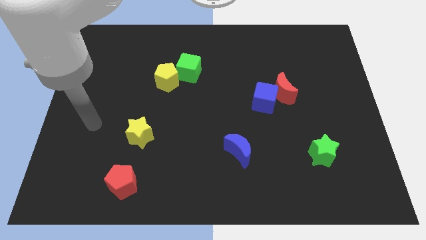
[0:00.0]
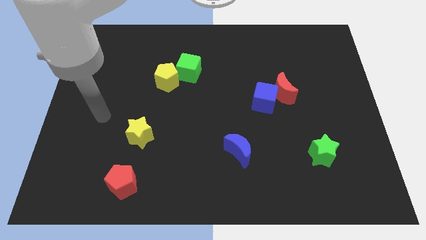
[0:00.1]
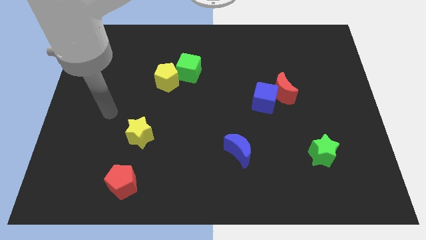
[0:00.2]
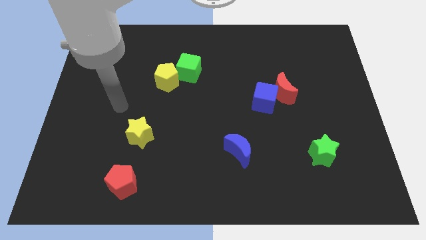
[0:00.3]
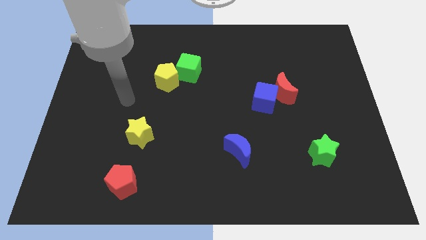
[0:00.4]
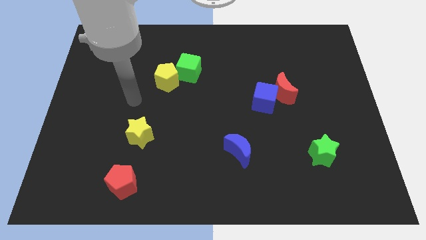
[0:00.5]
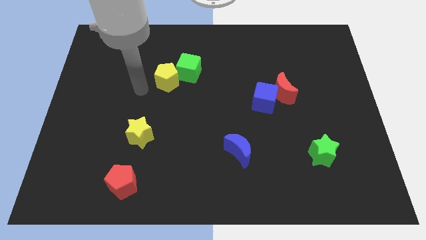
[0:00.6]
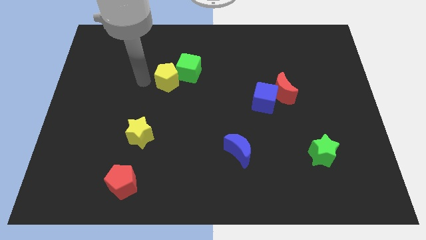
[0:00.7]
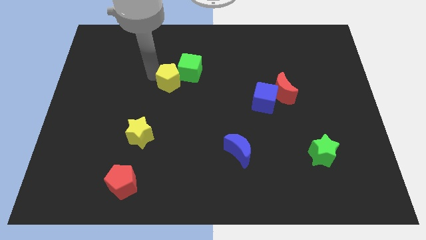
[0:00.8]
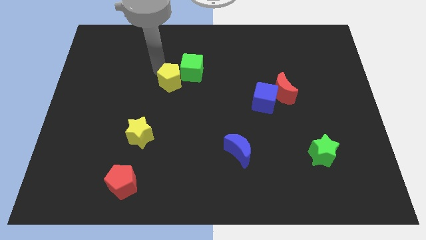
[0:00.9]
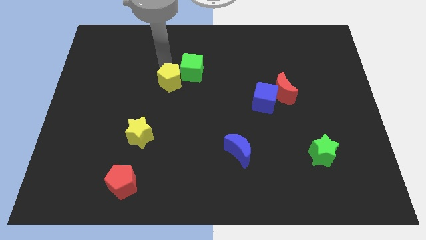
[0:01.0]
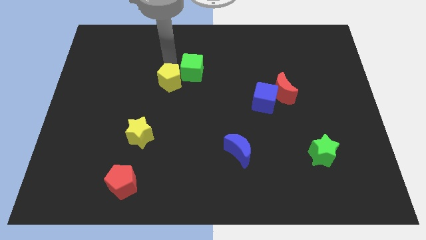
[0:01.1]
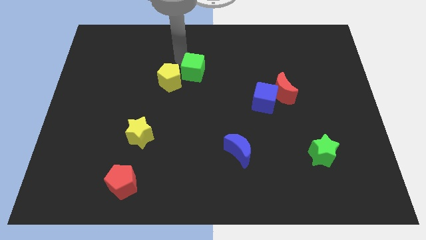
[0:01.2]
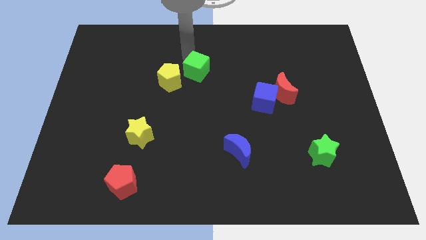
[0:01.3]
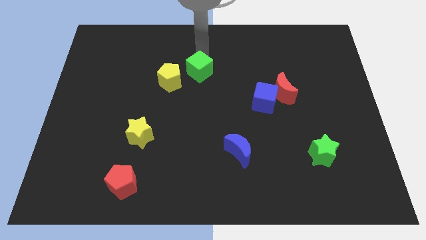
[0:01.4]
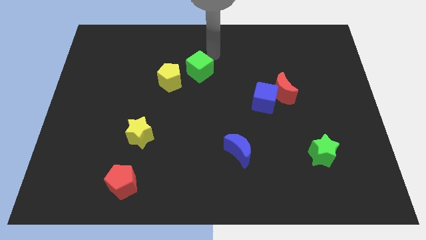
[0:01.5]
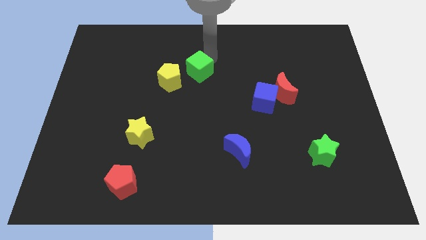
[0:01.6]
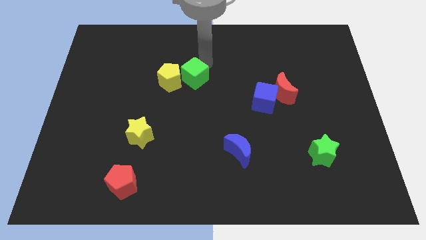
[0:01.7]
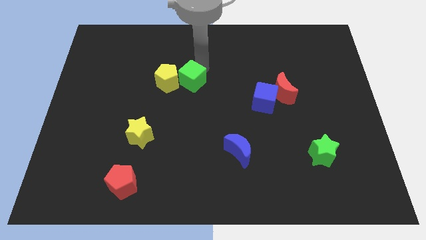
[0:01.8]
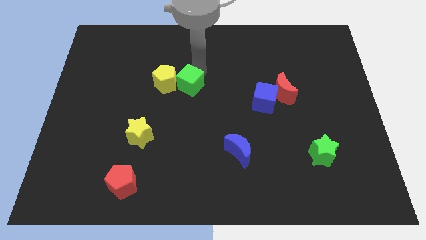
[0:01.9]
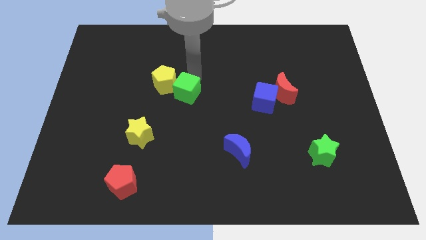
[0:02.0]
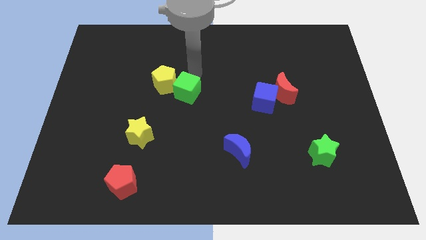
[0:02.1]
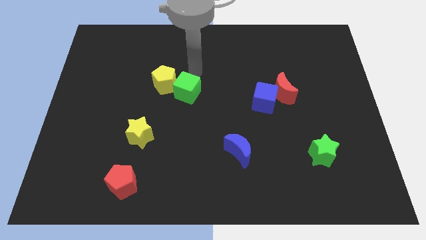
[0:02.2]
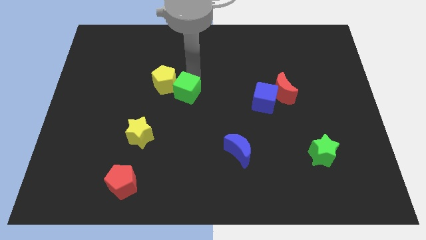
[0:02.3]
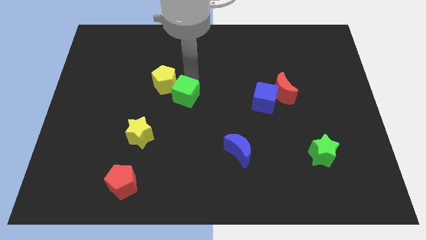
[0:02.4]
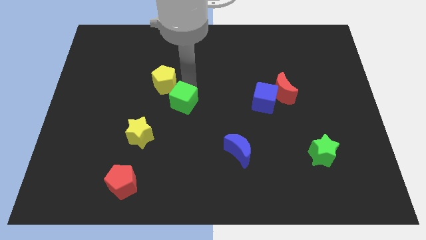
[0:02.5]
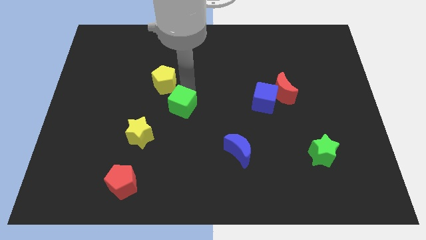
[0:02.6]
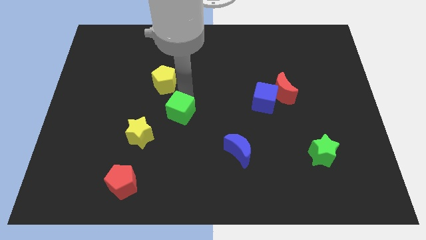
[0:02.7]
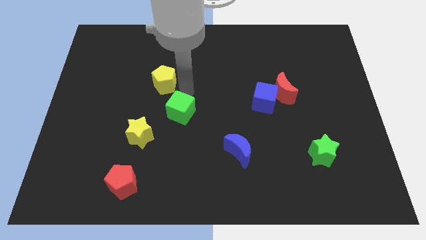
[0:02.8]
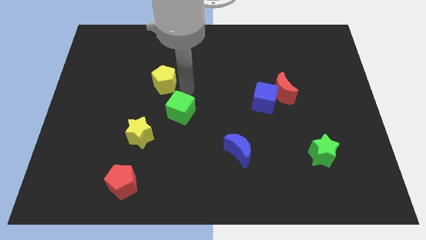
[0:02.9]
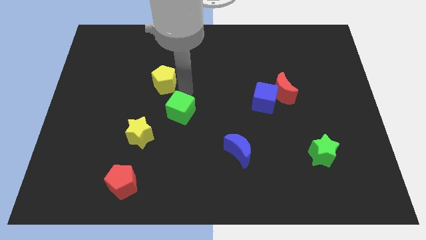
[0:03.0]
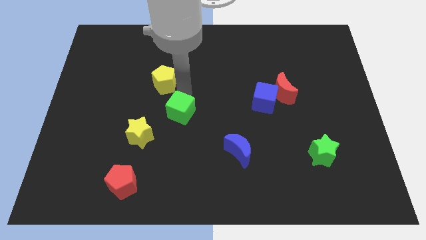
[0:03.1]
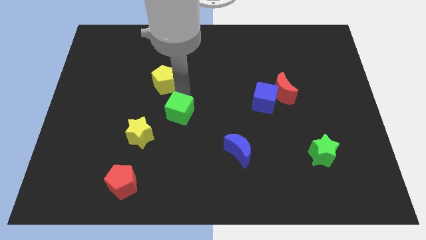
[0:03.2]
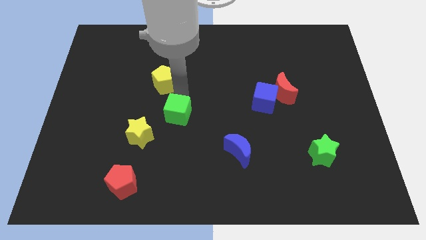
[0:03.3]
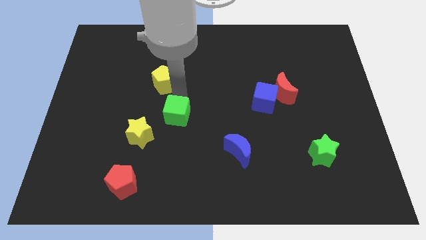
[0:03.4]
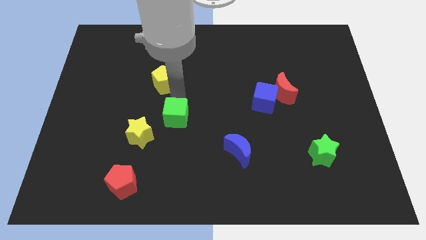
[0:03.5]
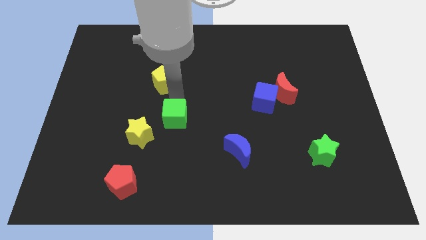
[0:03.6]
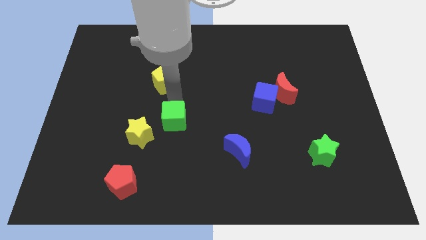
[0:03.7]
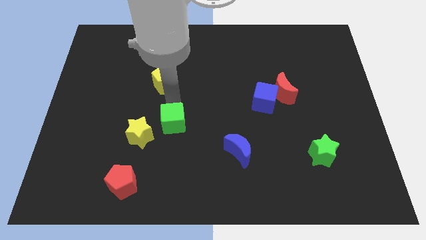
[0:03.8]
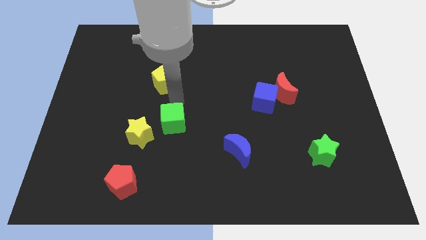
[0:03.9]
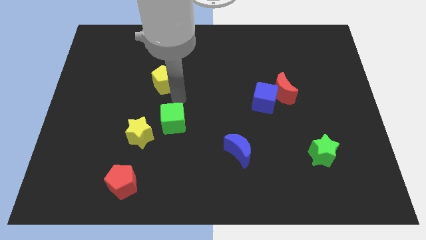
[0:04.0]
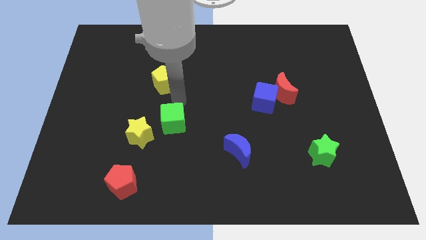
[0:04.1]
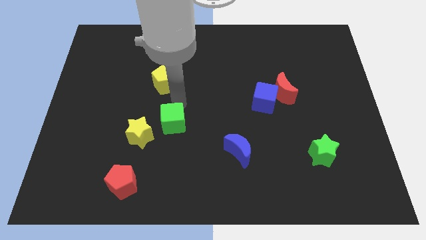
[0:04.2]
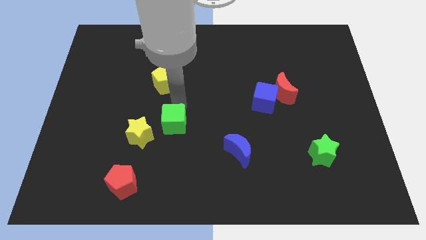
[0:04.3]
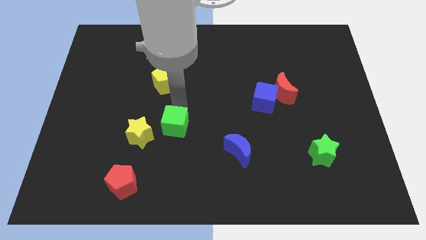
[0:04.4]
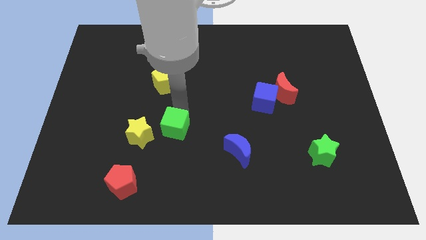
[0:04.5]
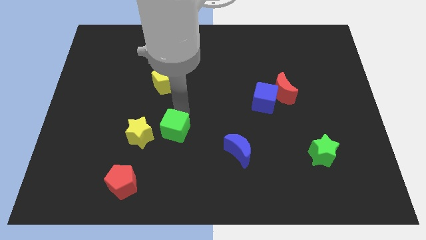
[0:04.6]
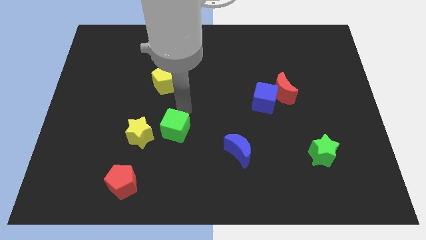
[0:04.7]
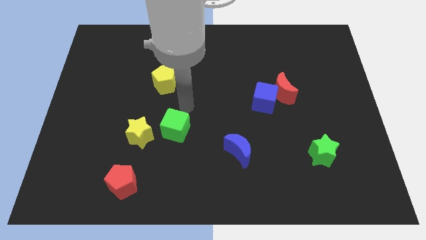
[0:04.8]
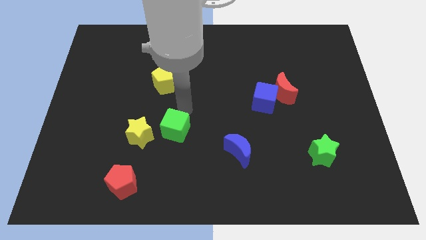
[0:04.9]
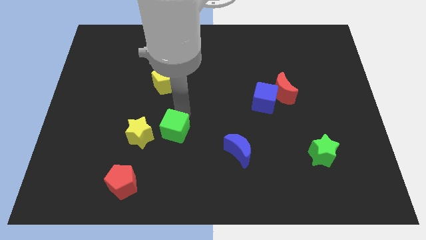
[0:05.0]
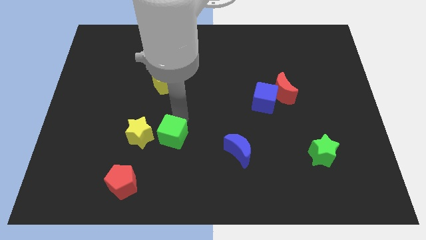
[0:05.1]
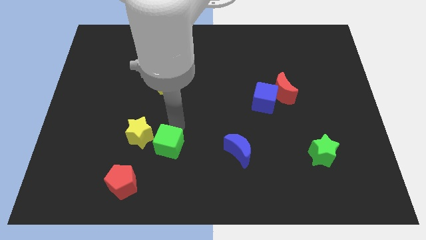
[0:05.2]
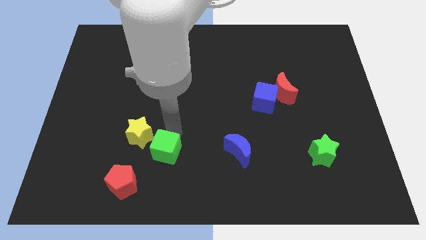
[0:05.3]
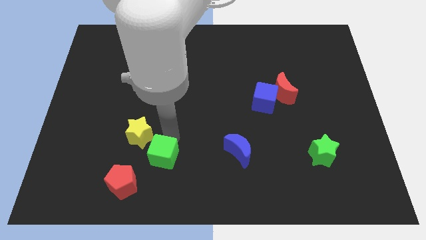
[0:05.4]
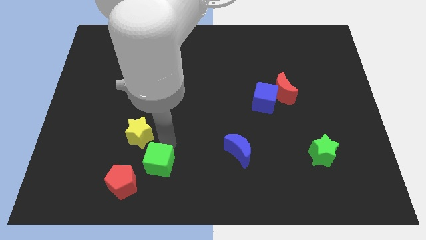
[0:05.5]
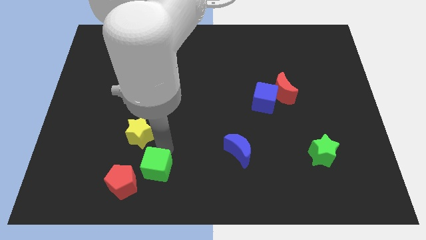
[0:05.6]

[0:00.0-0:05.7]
put the green cube to the bottom side of the yellow star

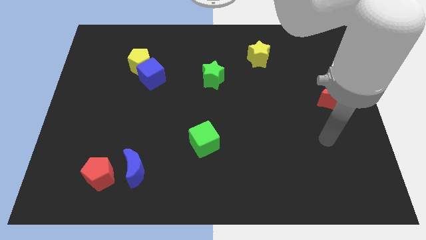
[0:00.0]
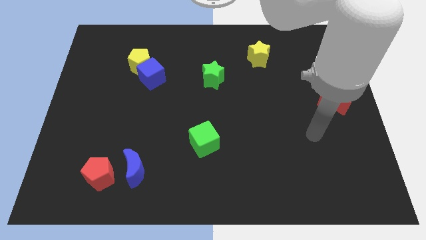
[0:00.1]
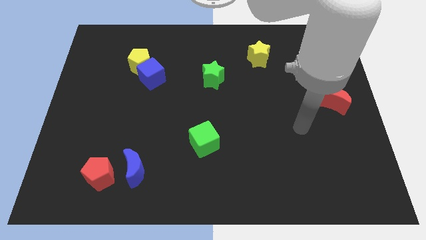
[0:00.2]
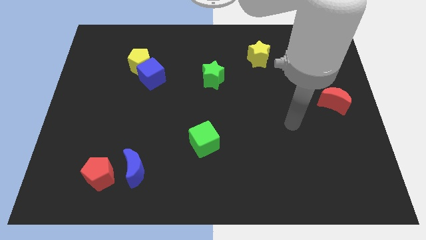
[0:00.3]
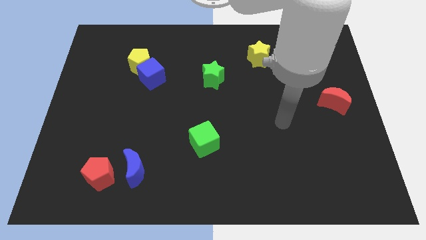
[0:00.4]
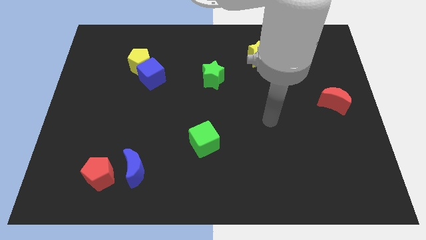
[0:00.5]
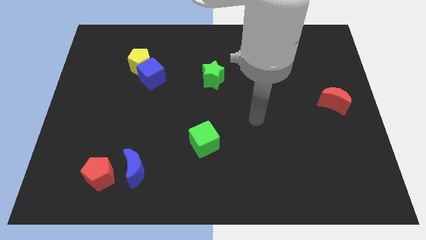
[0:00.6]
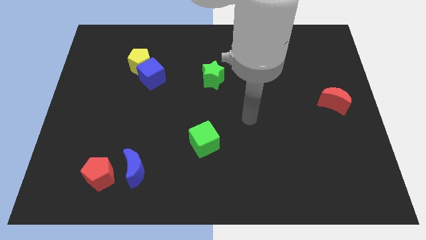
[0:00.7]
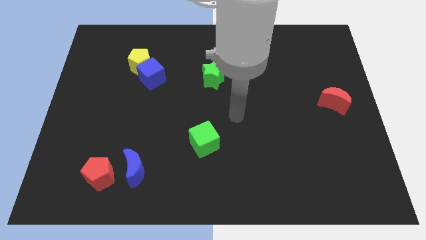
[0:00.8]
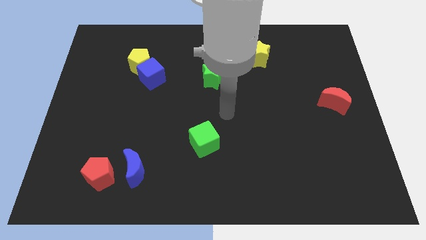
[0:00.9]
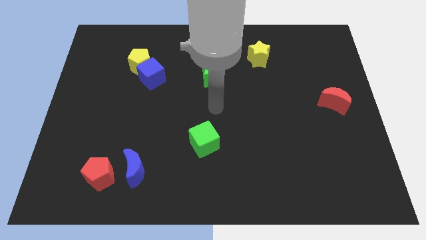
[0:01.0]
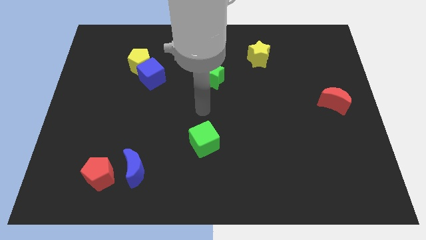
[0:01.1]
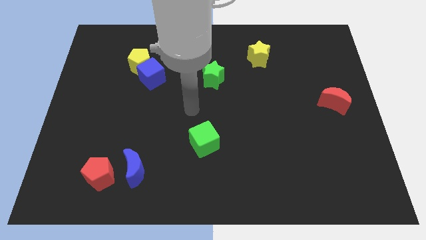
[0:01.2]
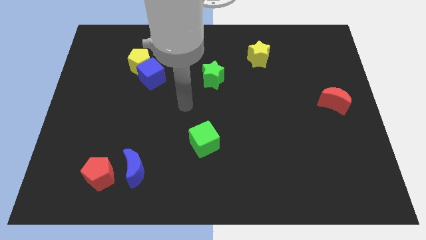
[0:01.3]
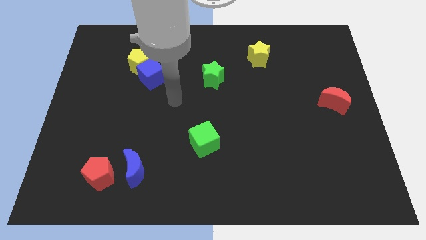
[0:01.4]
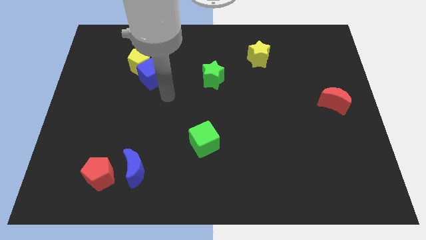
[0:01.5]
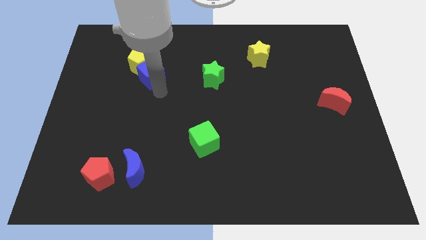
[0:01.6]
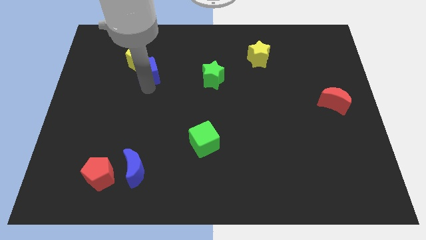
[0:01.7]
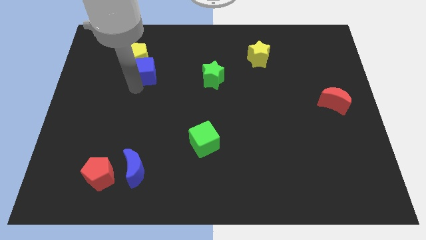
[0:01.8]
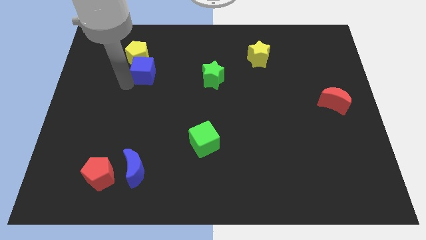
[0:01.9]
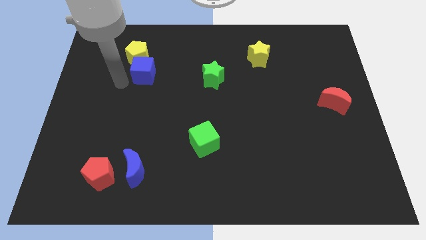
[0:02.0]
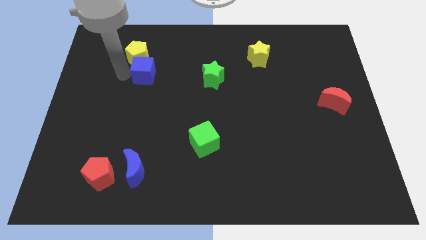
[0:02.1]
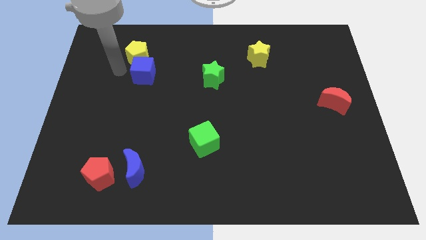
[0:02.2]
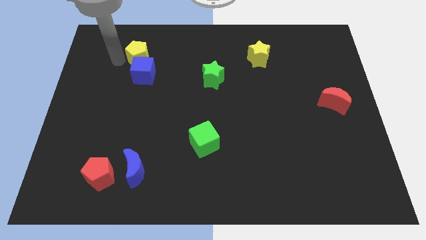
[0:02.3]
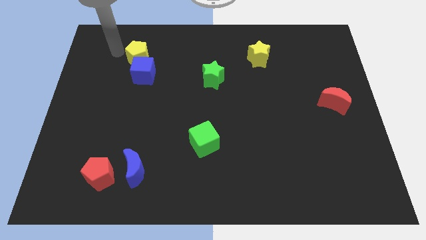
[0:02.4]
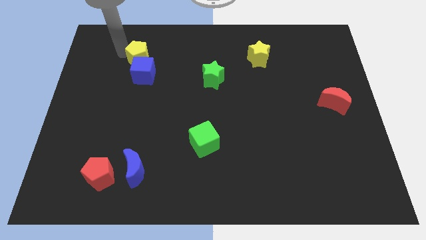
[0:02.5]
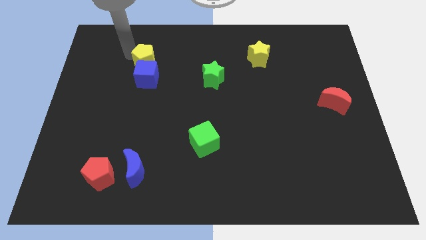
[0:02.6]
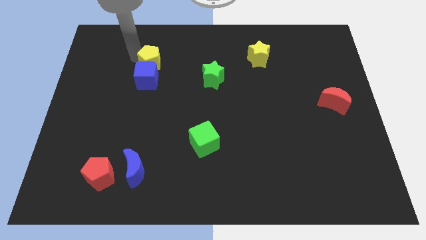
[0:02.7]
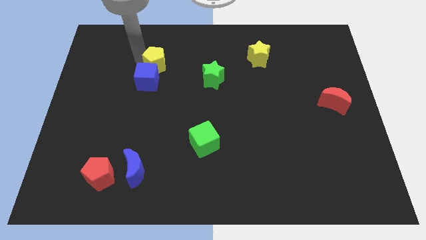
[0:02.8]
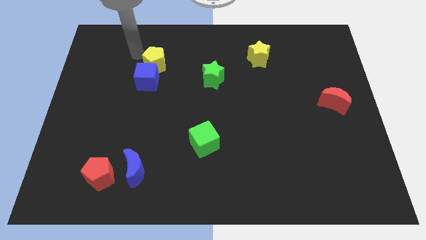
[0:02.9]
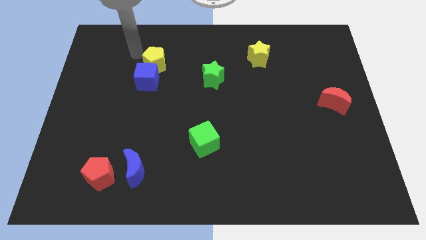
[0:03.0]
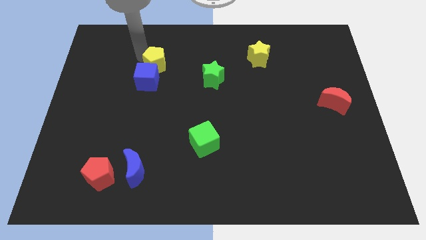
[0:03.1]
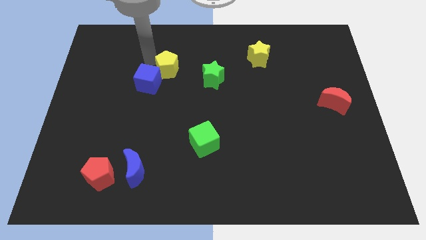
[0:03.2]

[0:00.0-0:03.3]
move the yellow pentagon right of the blue cube
